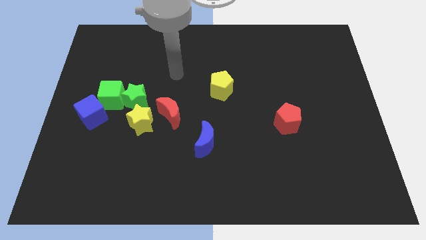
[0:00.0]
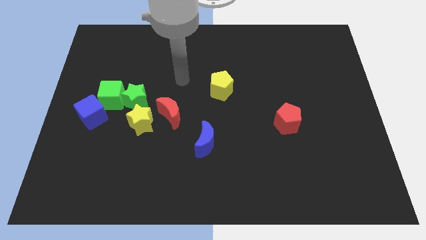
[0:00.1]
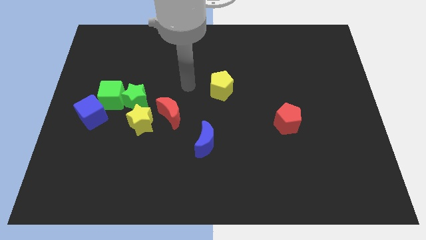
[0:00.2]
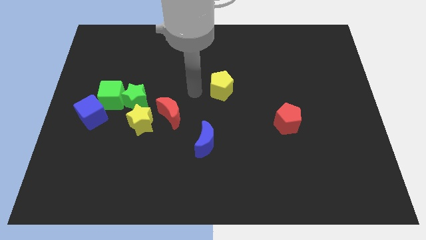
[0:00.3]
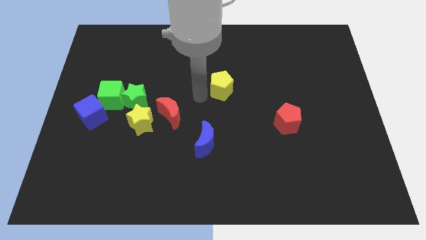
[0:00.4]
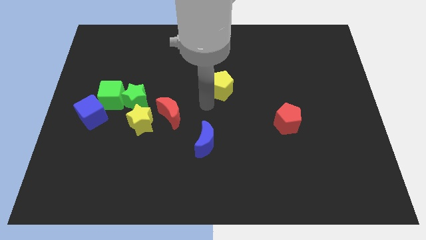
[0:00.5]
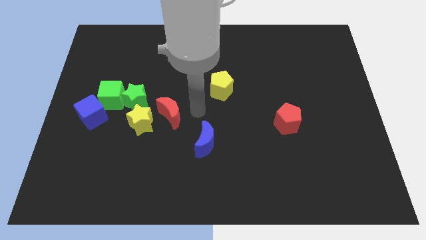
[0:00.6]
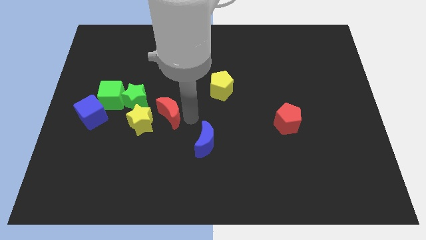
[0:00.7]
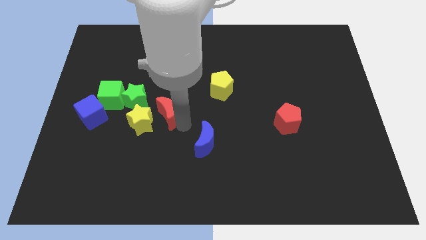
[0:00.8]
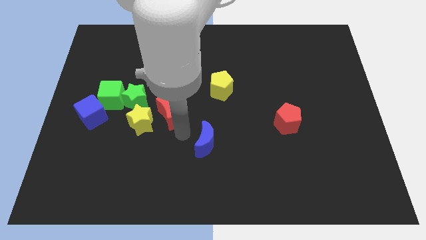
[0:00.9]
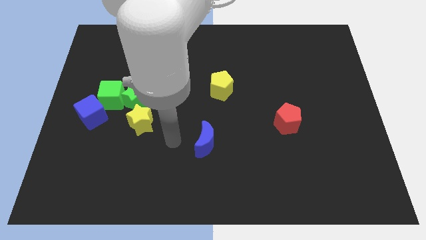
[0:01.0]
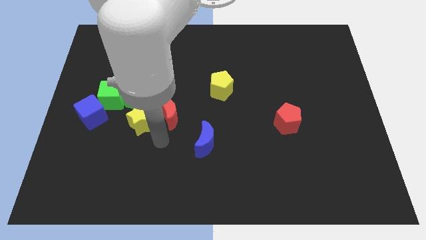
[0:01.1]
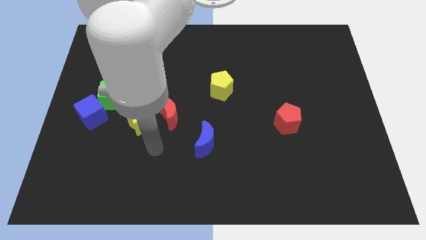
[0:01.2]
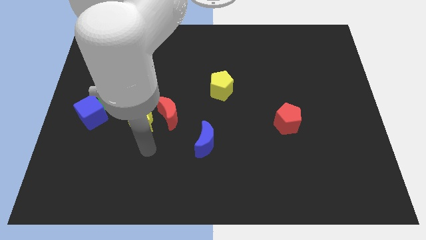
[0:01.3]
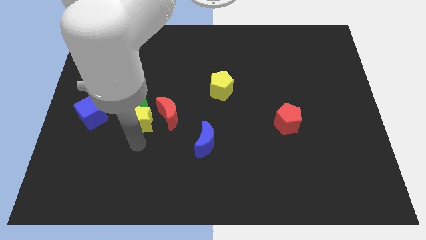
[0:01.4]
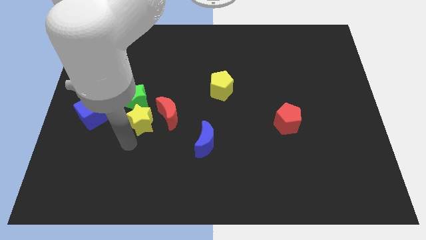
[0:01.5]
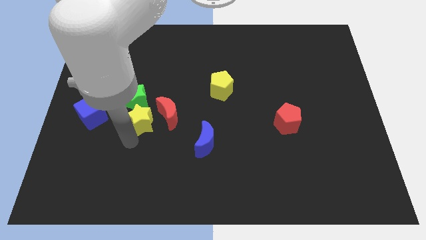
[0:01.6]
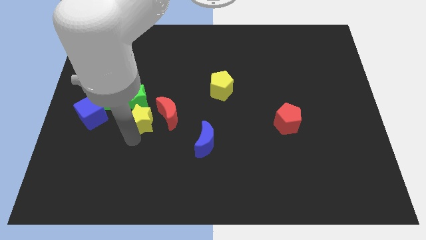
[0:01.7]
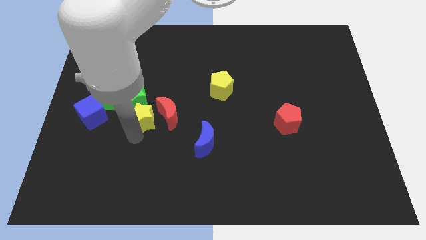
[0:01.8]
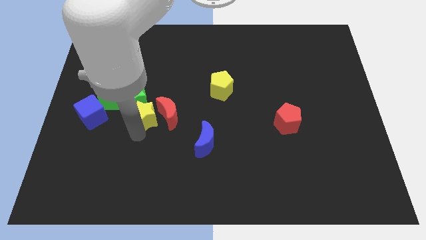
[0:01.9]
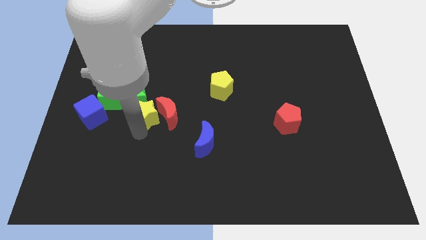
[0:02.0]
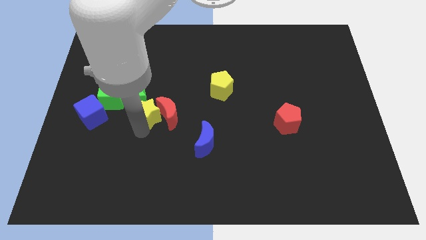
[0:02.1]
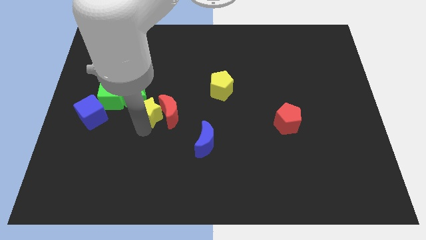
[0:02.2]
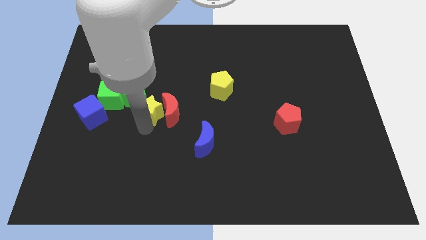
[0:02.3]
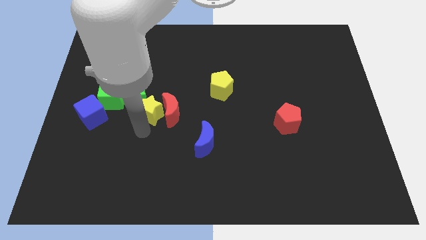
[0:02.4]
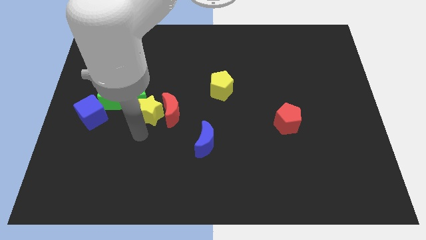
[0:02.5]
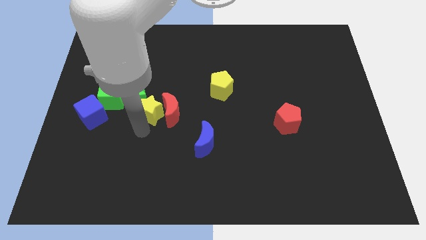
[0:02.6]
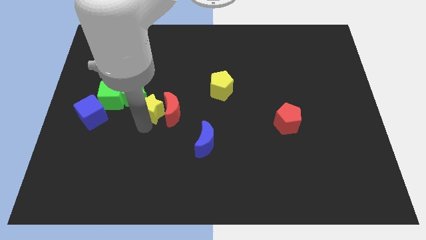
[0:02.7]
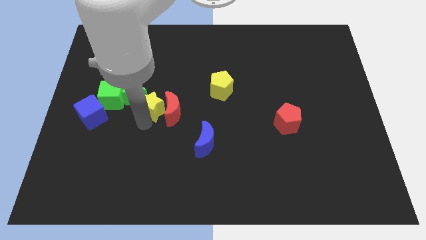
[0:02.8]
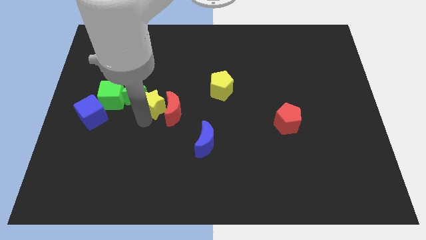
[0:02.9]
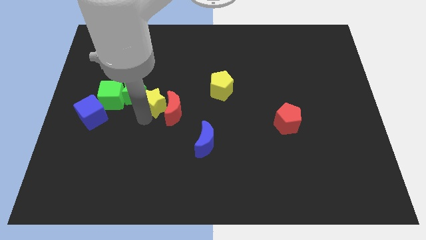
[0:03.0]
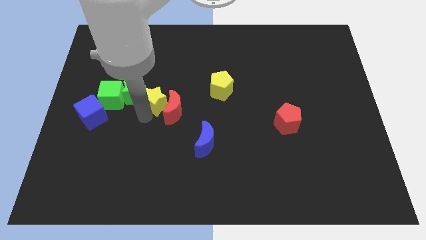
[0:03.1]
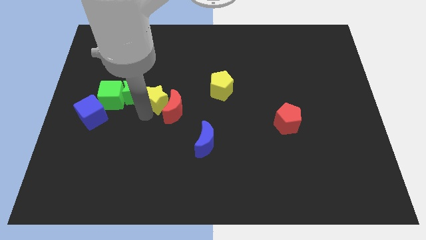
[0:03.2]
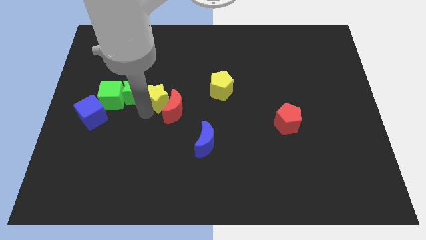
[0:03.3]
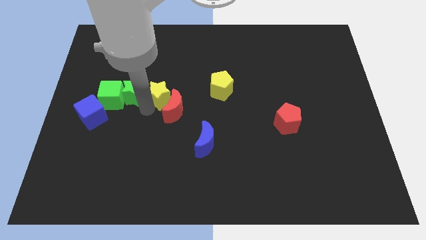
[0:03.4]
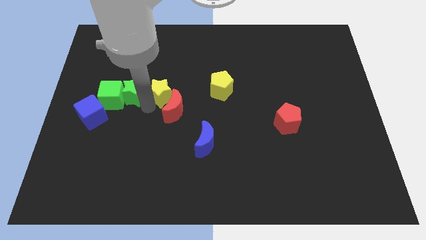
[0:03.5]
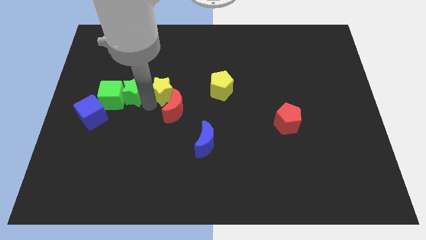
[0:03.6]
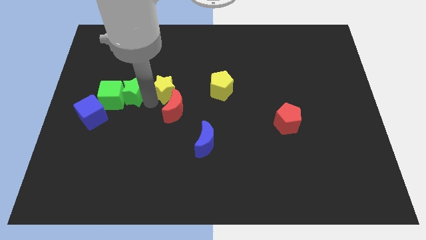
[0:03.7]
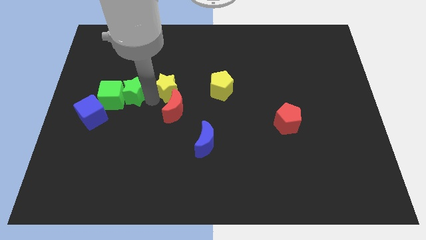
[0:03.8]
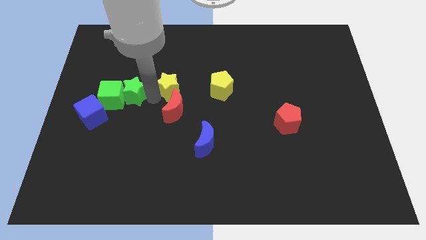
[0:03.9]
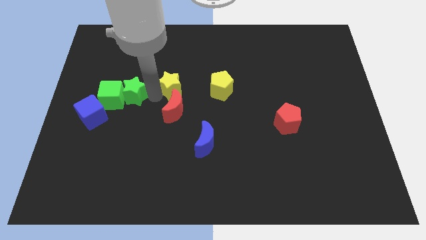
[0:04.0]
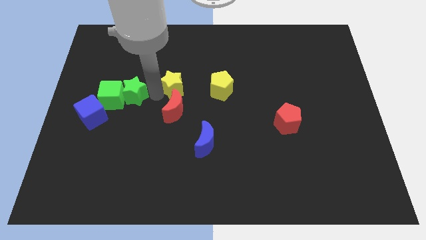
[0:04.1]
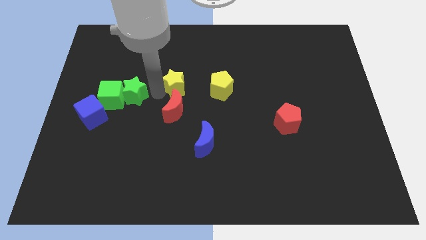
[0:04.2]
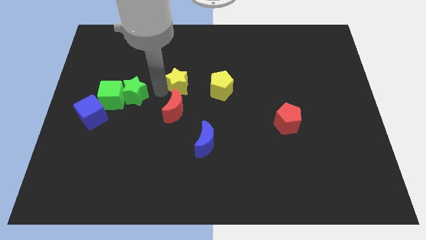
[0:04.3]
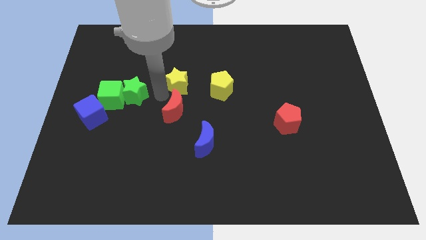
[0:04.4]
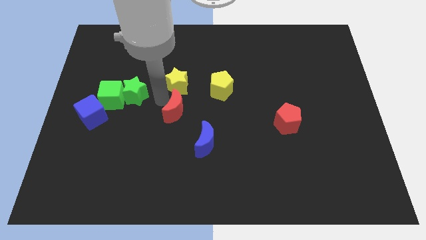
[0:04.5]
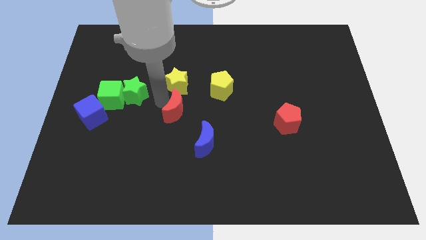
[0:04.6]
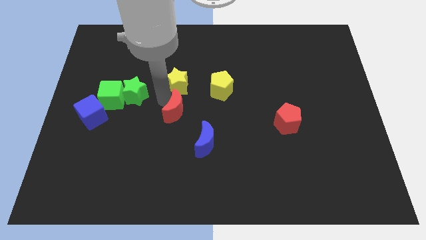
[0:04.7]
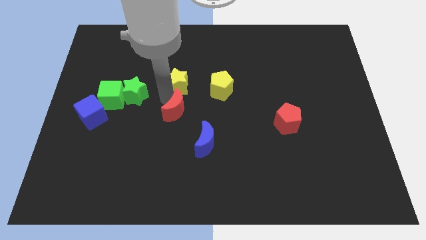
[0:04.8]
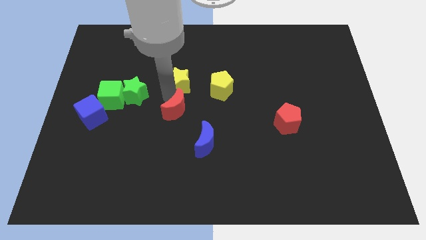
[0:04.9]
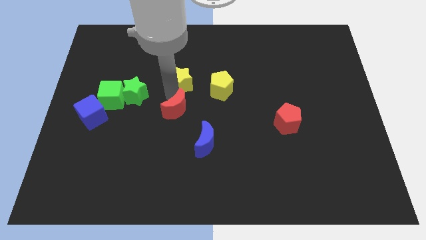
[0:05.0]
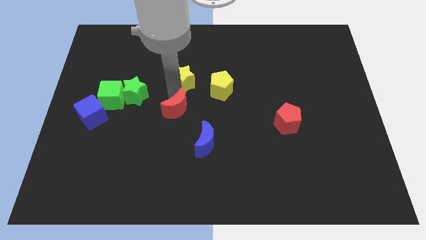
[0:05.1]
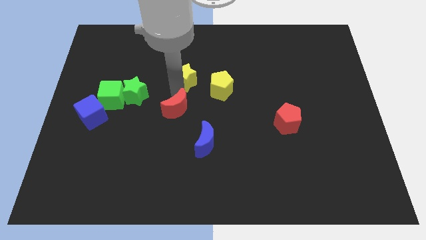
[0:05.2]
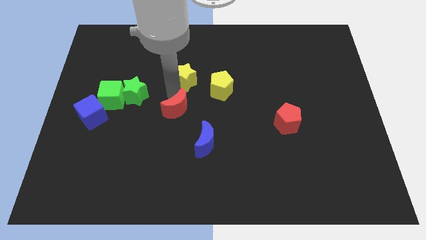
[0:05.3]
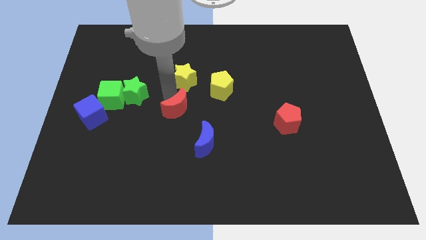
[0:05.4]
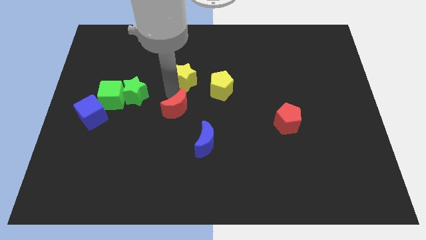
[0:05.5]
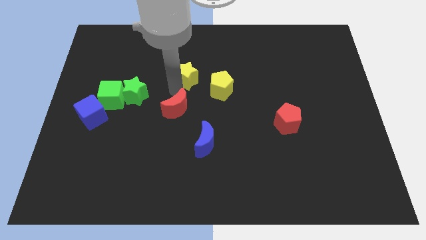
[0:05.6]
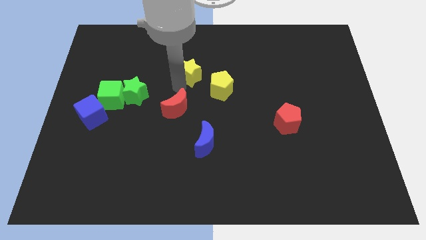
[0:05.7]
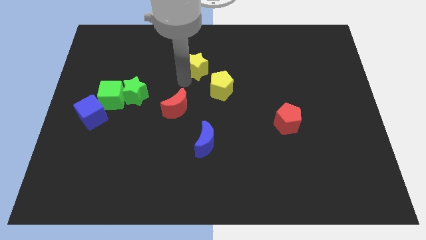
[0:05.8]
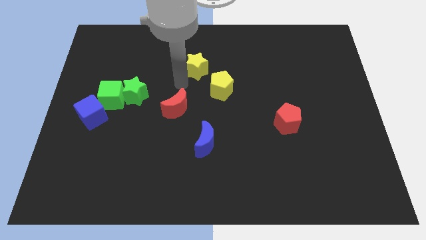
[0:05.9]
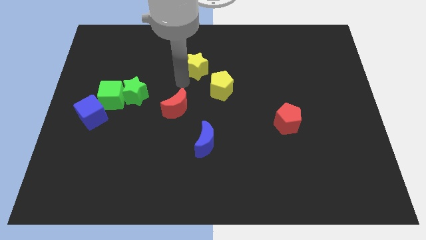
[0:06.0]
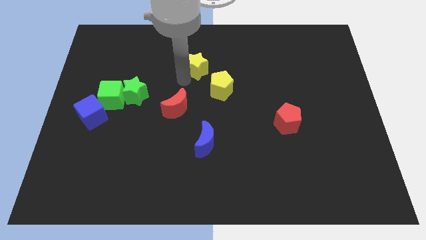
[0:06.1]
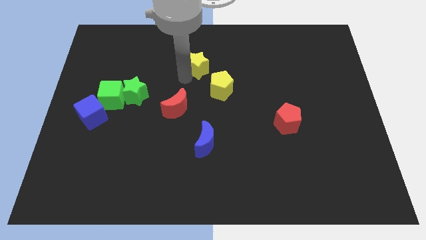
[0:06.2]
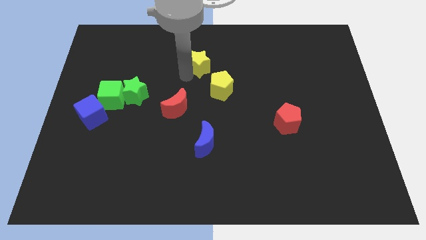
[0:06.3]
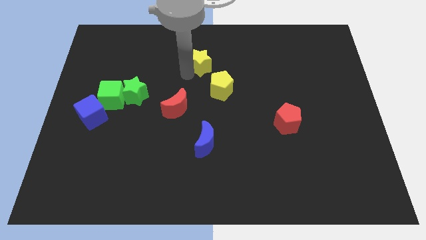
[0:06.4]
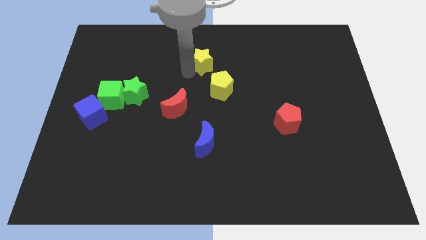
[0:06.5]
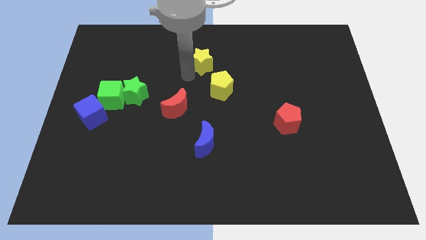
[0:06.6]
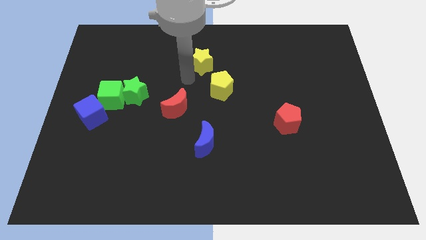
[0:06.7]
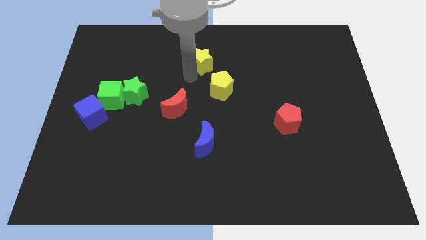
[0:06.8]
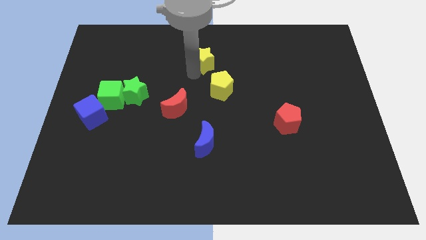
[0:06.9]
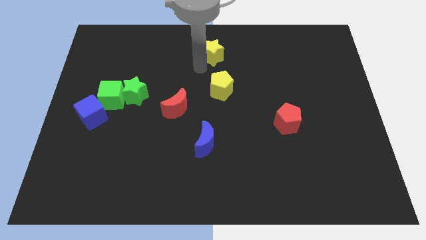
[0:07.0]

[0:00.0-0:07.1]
move the yellow star to the top
